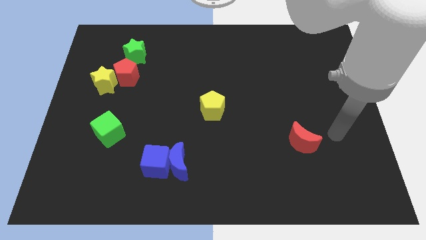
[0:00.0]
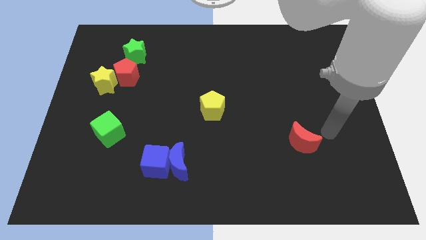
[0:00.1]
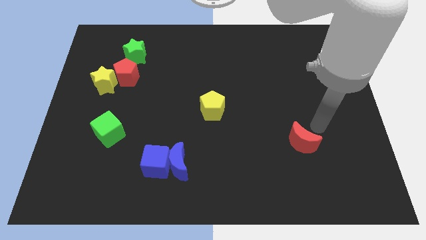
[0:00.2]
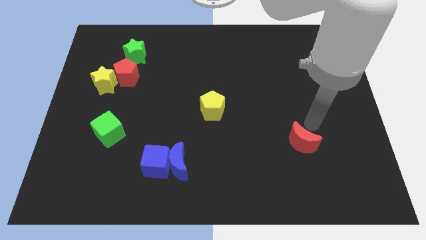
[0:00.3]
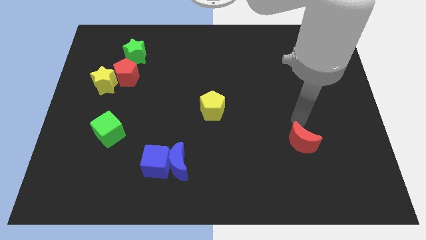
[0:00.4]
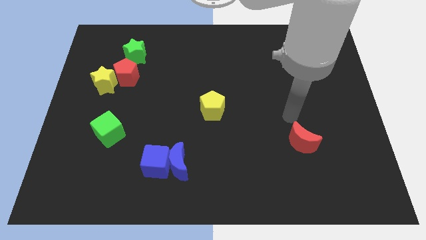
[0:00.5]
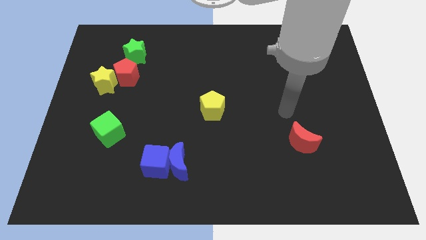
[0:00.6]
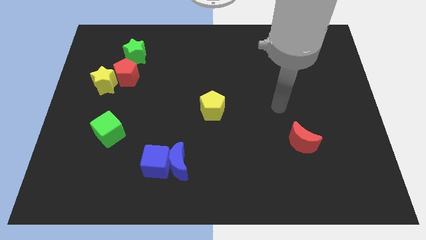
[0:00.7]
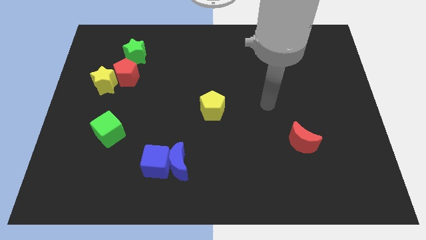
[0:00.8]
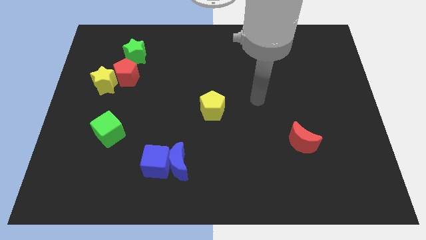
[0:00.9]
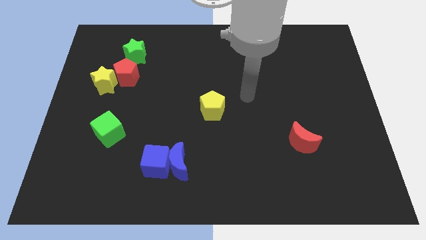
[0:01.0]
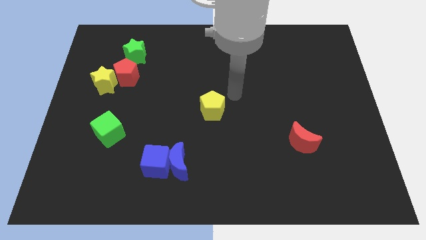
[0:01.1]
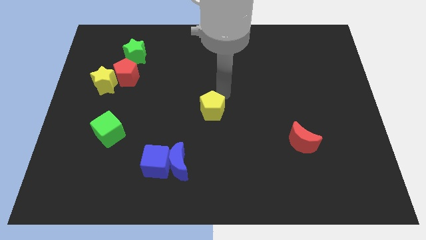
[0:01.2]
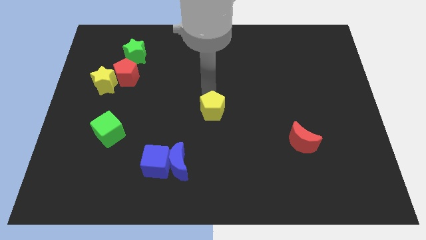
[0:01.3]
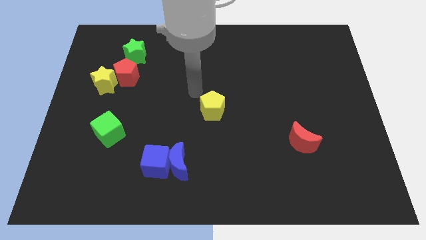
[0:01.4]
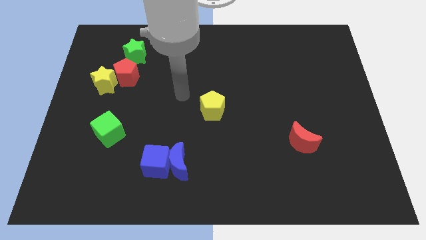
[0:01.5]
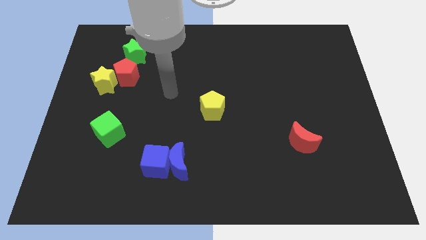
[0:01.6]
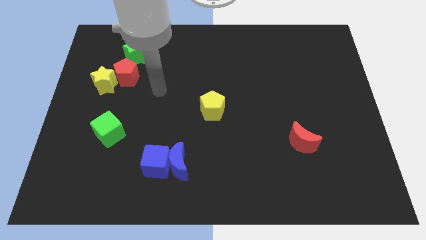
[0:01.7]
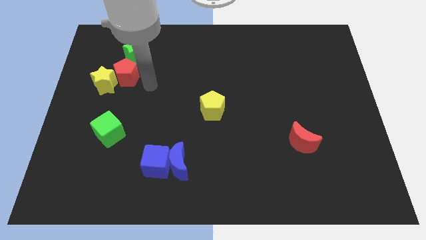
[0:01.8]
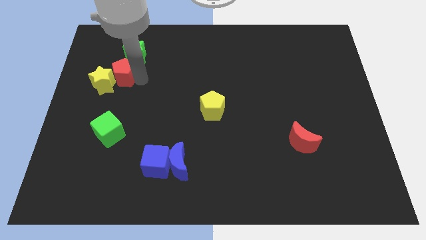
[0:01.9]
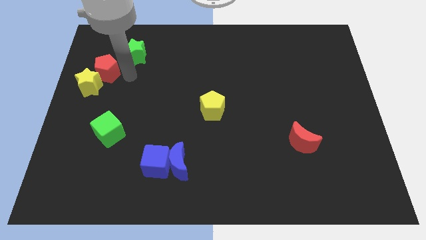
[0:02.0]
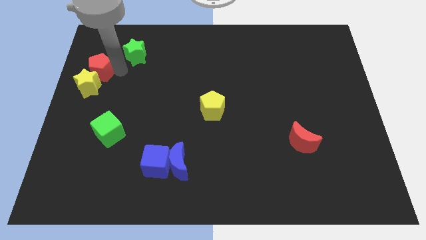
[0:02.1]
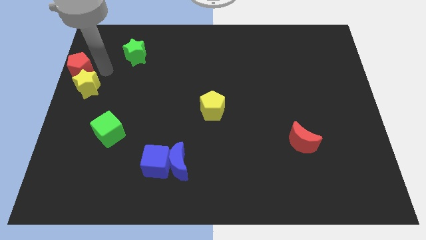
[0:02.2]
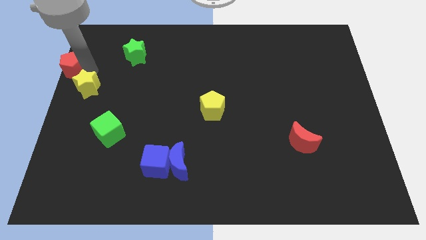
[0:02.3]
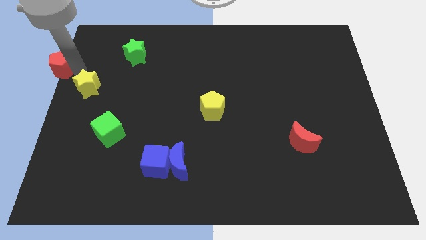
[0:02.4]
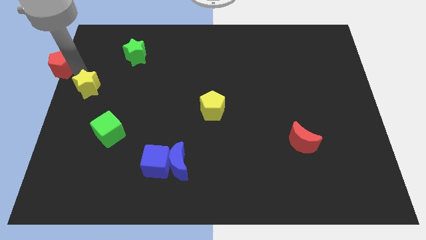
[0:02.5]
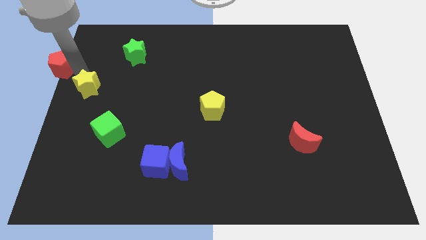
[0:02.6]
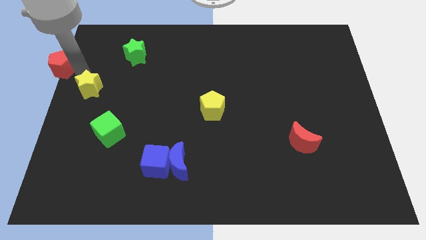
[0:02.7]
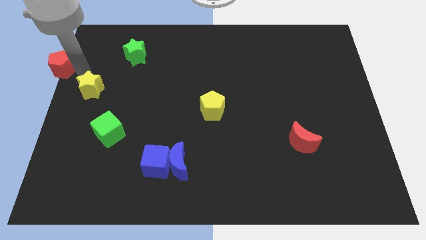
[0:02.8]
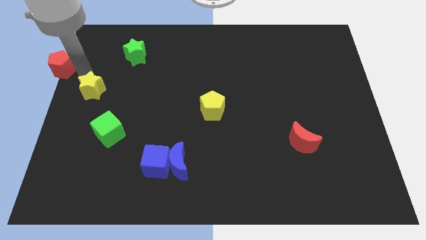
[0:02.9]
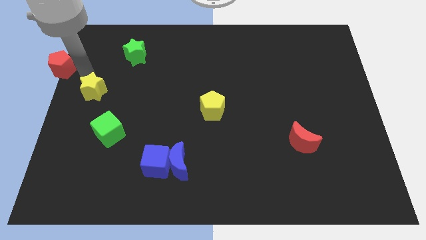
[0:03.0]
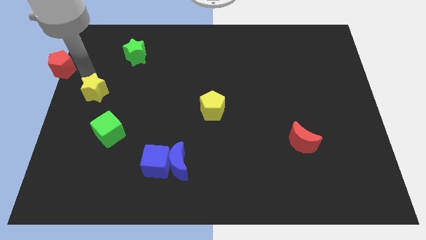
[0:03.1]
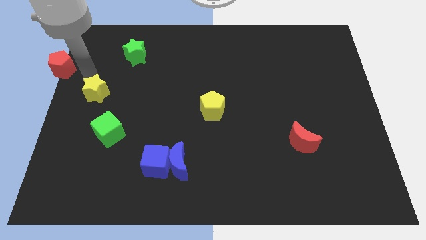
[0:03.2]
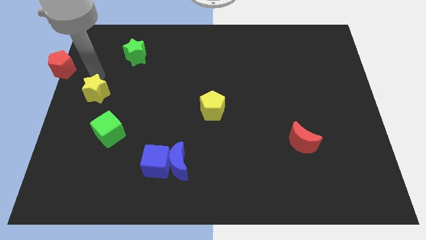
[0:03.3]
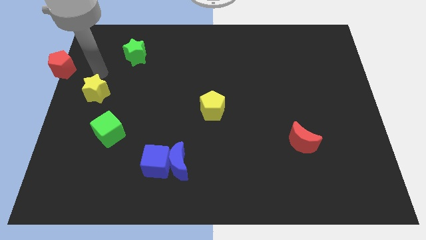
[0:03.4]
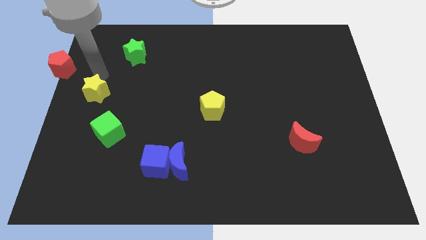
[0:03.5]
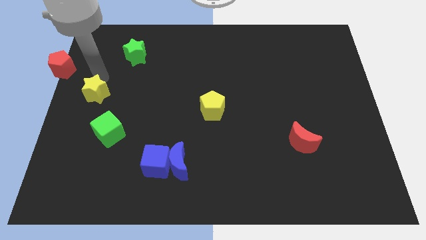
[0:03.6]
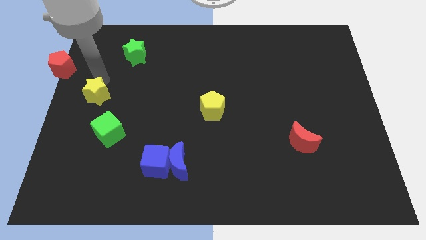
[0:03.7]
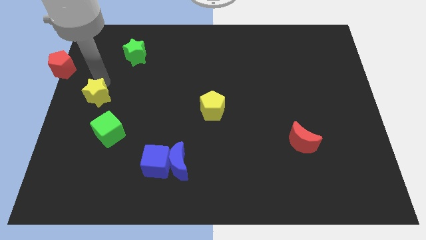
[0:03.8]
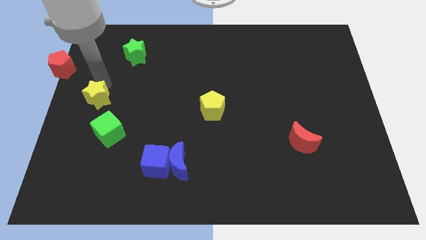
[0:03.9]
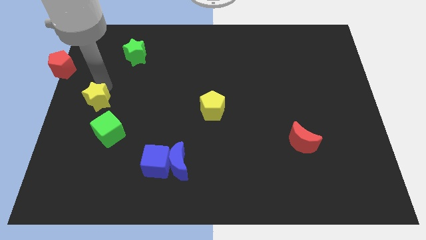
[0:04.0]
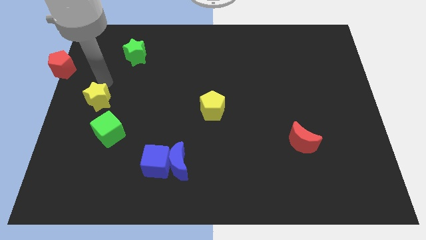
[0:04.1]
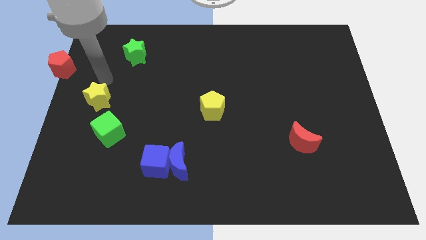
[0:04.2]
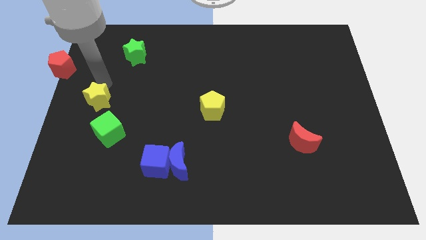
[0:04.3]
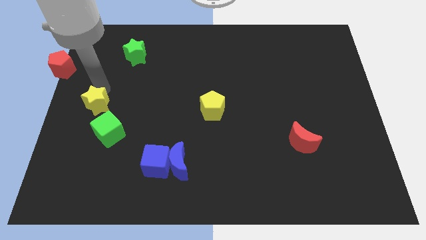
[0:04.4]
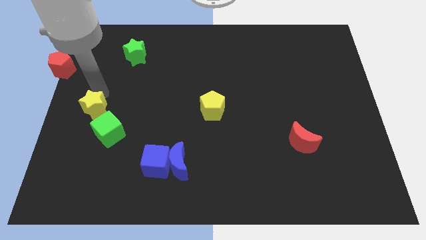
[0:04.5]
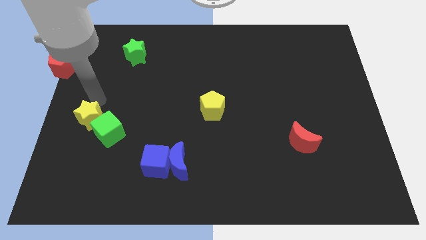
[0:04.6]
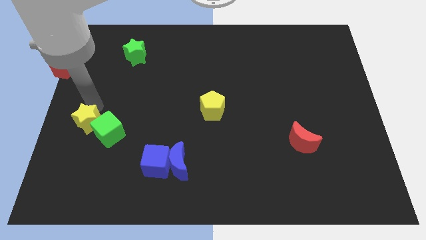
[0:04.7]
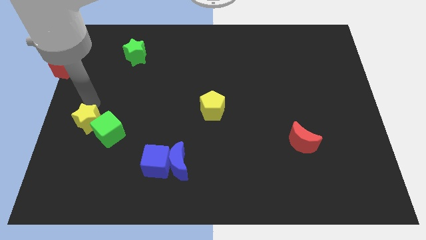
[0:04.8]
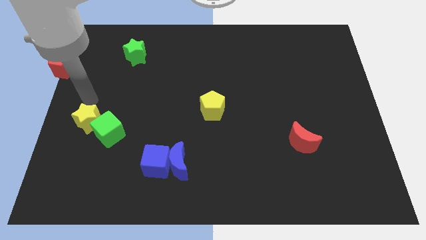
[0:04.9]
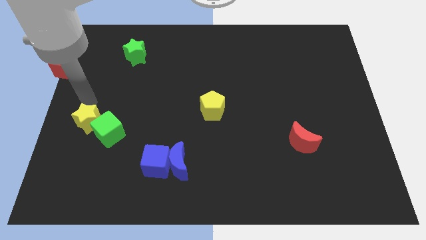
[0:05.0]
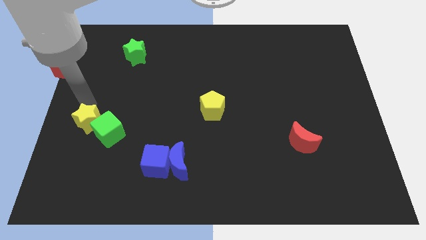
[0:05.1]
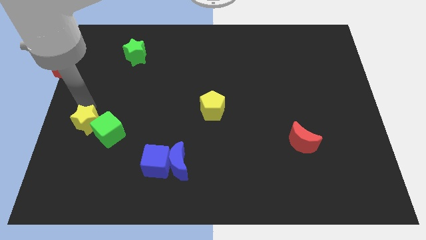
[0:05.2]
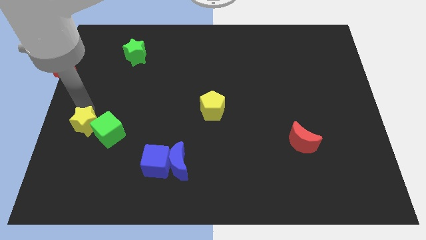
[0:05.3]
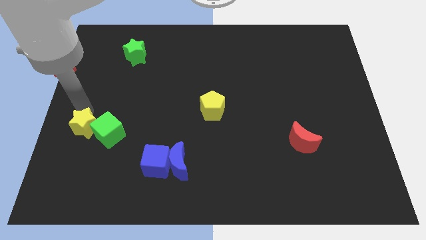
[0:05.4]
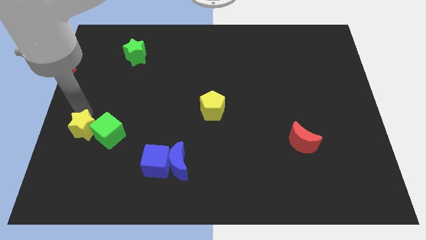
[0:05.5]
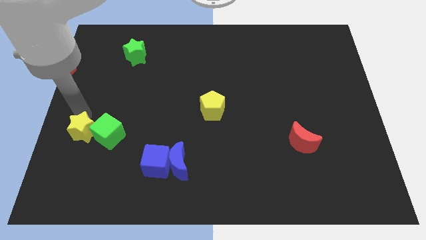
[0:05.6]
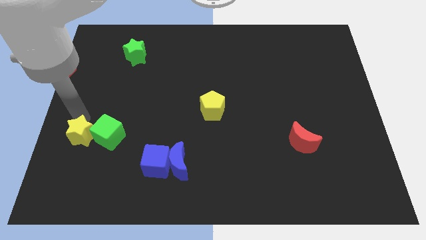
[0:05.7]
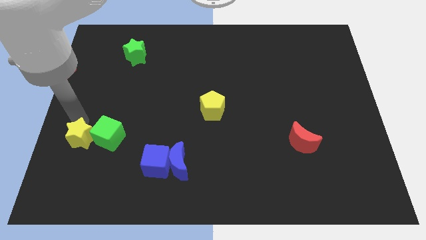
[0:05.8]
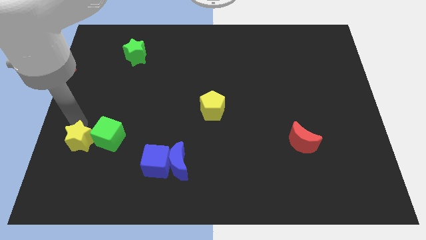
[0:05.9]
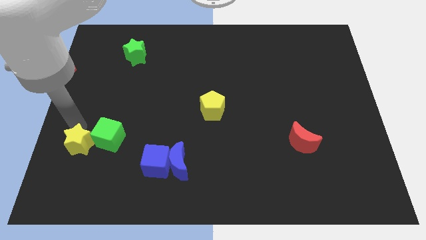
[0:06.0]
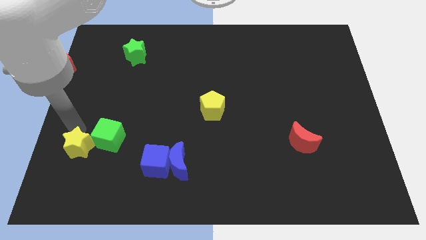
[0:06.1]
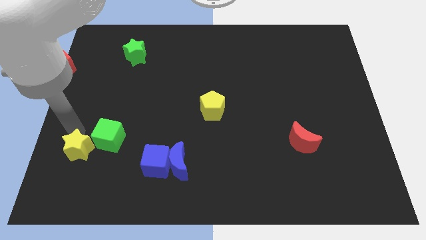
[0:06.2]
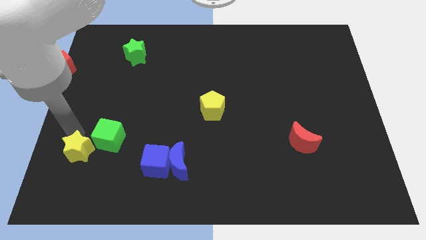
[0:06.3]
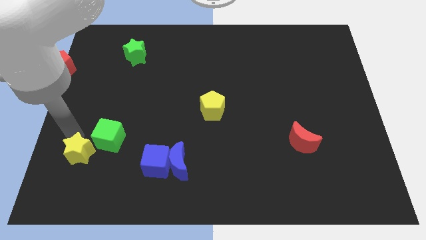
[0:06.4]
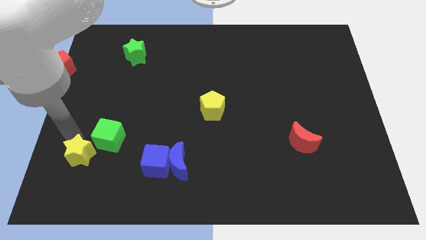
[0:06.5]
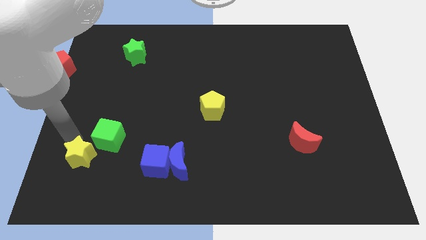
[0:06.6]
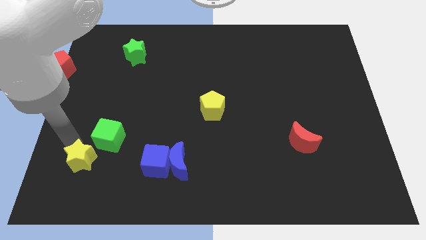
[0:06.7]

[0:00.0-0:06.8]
put the yellow star to the bottom of the green cube

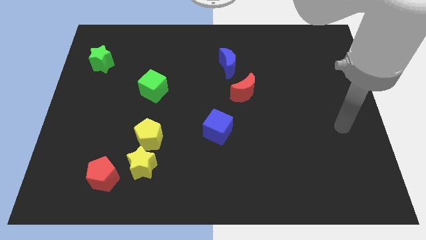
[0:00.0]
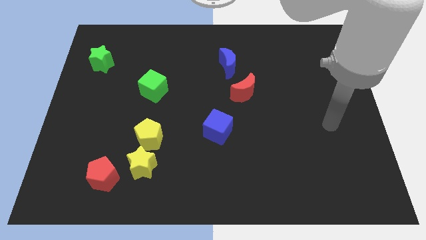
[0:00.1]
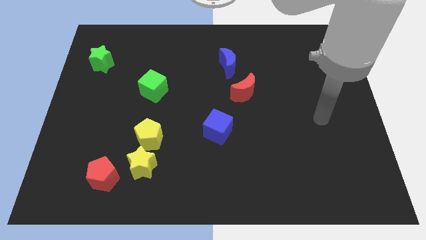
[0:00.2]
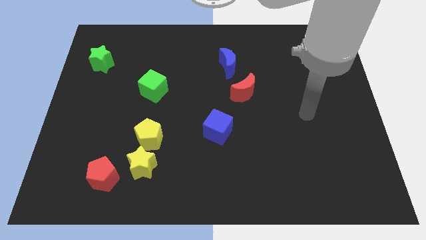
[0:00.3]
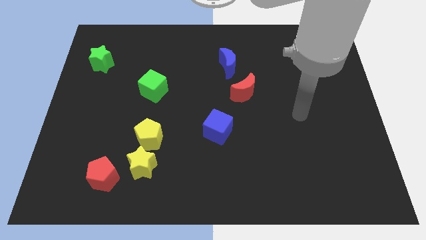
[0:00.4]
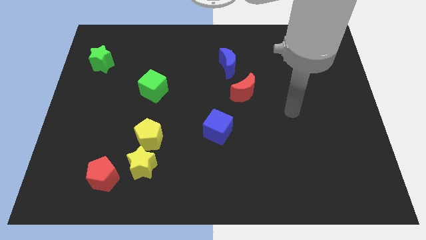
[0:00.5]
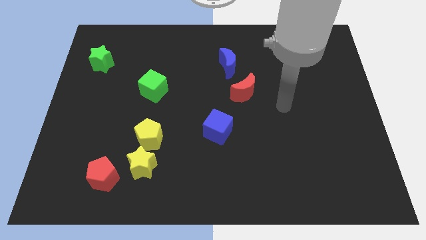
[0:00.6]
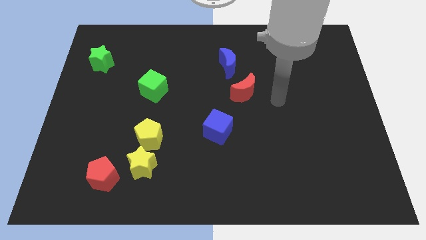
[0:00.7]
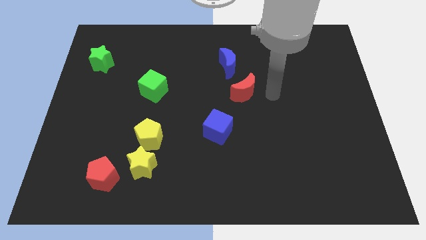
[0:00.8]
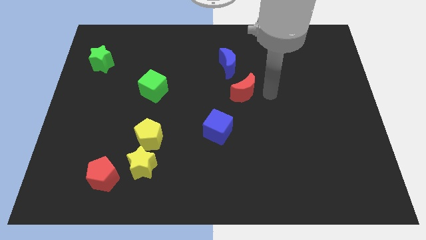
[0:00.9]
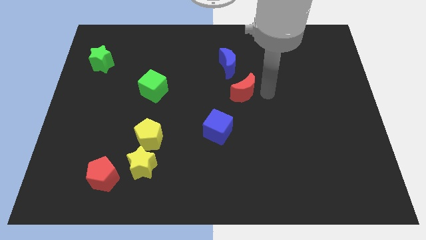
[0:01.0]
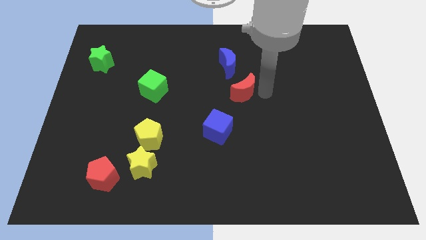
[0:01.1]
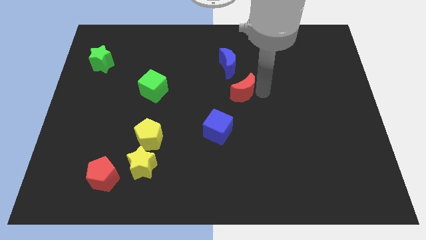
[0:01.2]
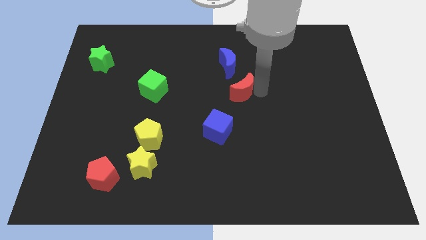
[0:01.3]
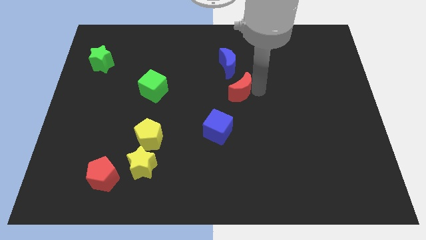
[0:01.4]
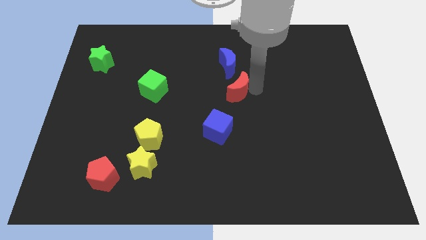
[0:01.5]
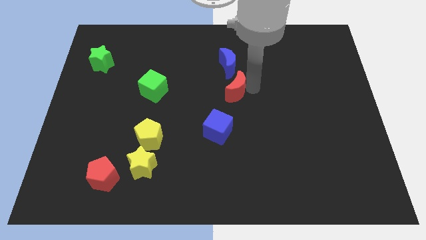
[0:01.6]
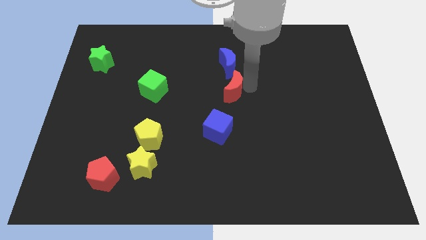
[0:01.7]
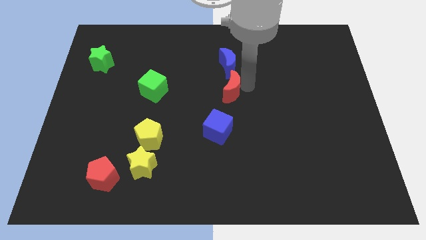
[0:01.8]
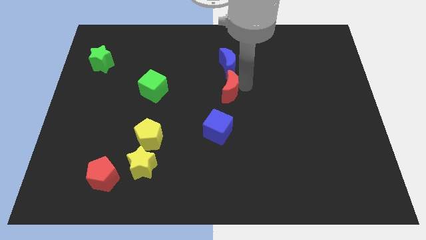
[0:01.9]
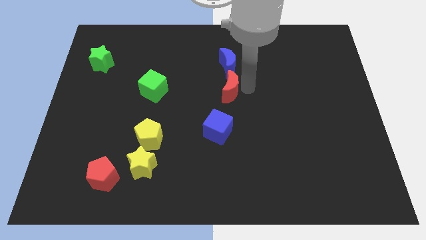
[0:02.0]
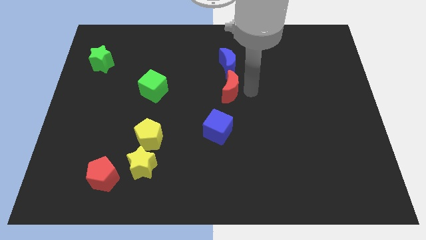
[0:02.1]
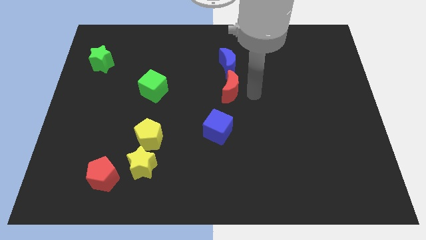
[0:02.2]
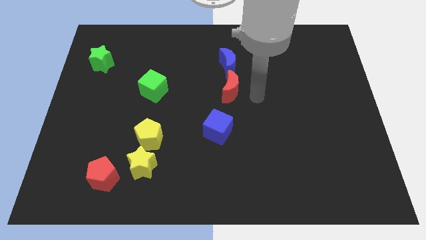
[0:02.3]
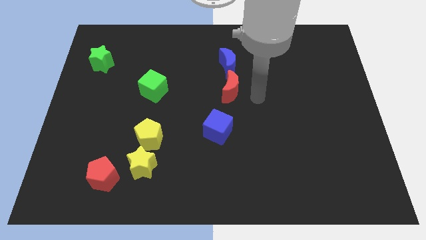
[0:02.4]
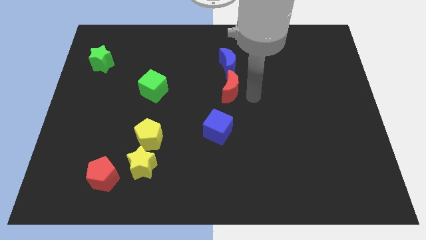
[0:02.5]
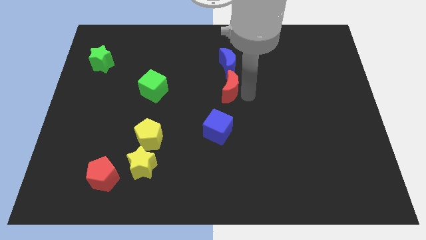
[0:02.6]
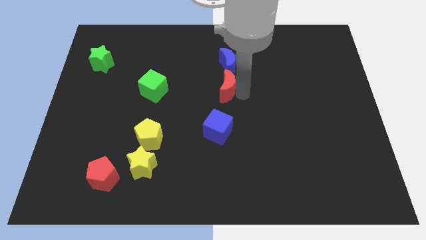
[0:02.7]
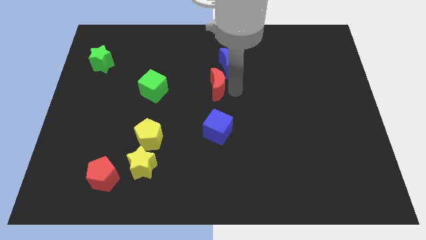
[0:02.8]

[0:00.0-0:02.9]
put the red moon just right of the green cube
